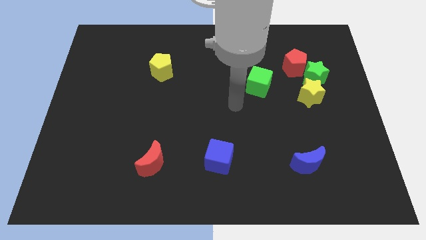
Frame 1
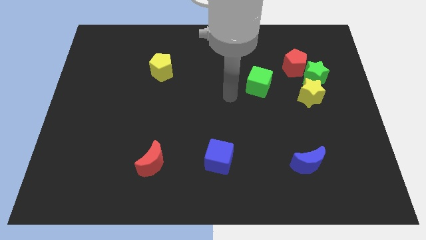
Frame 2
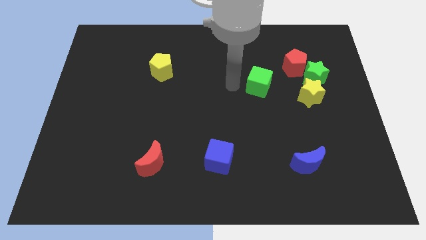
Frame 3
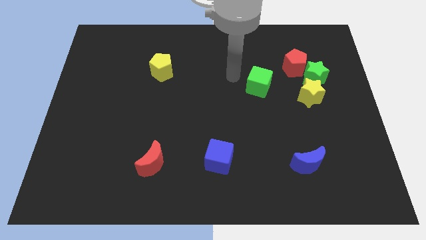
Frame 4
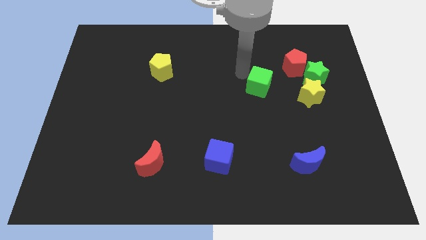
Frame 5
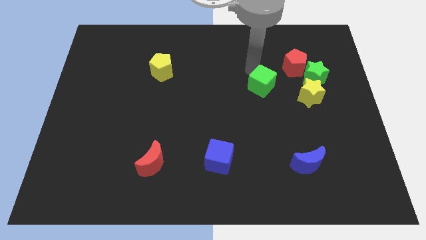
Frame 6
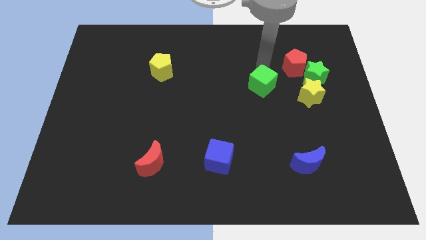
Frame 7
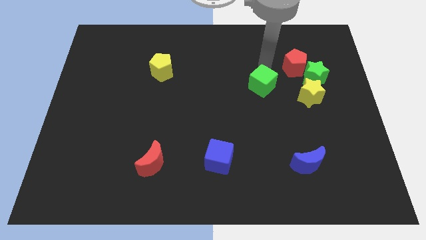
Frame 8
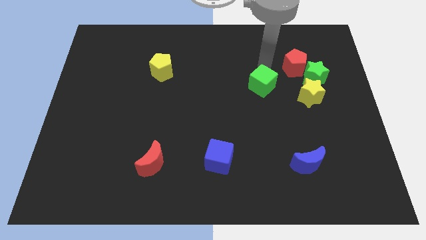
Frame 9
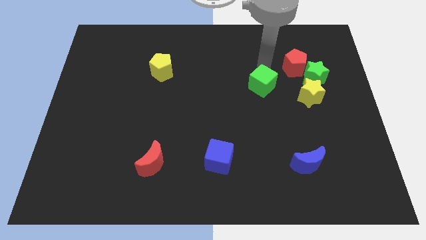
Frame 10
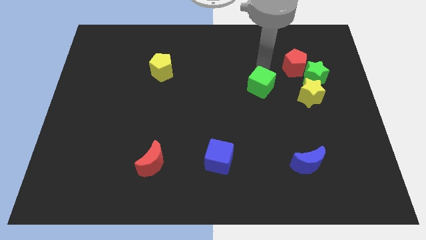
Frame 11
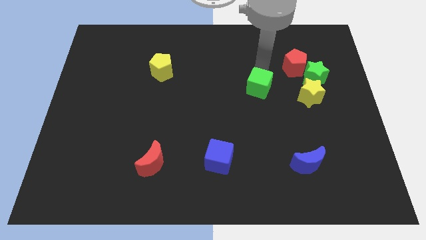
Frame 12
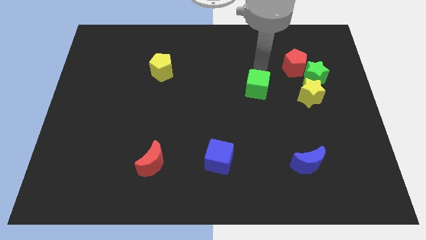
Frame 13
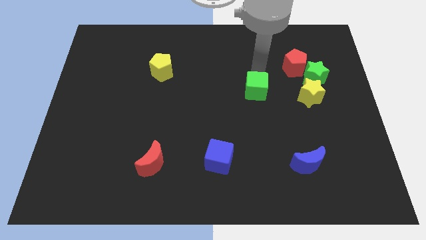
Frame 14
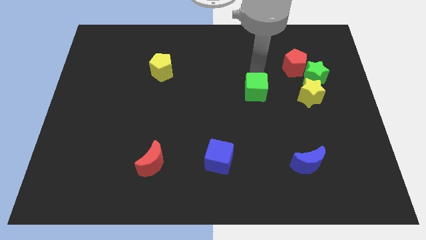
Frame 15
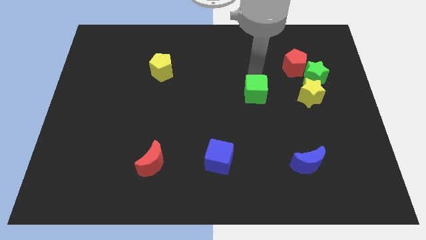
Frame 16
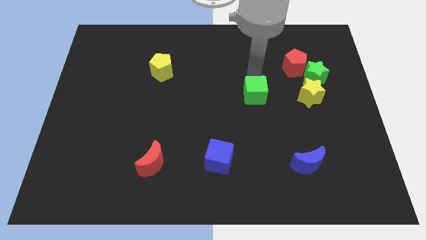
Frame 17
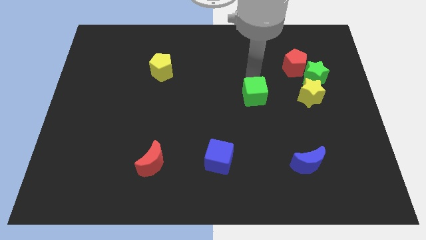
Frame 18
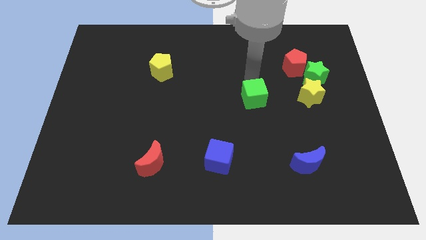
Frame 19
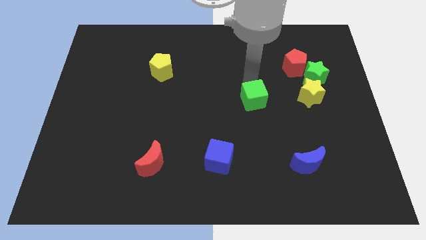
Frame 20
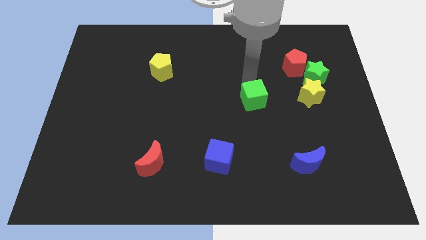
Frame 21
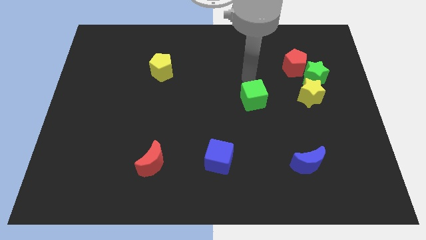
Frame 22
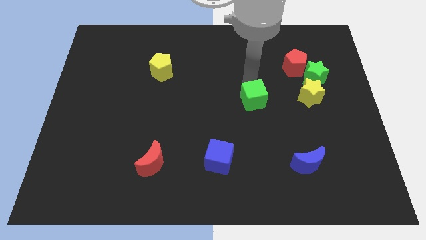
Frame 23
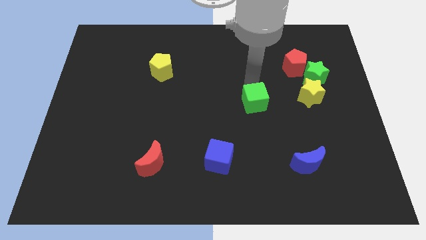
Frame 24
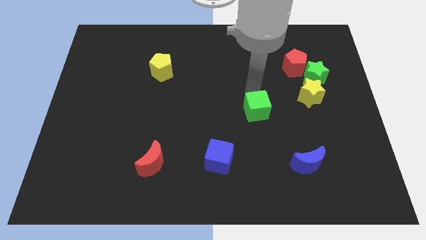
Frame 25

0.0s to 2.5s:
push the green cube a little bit down

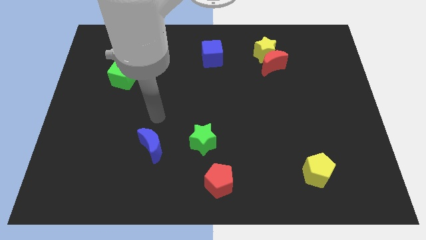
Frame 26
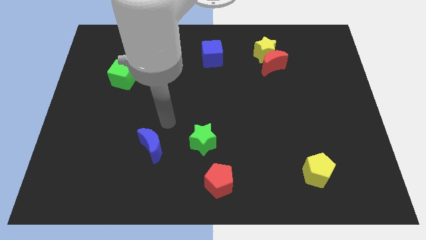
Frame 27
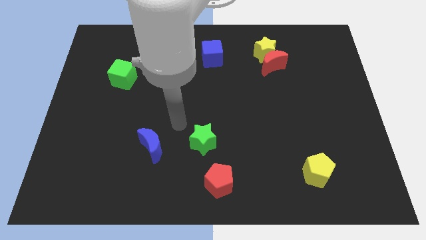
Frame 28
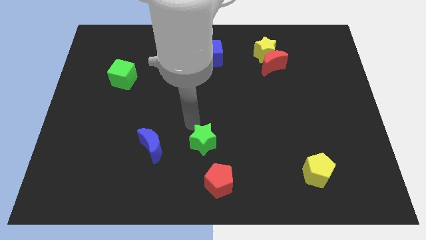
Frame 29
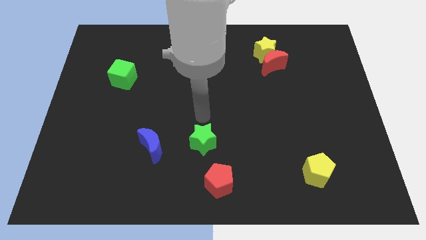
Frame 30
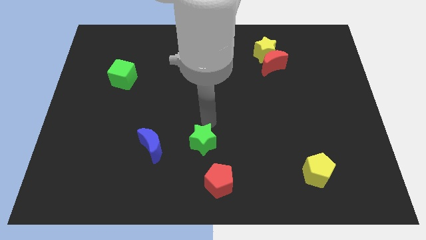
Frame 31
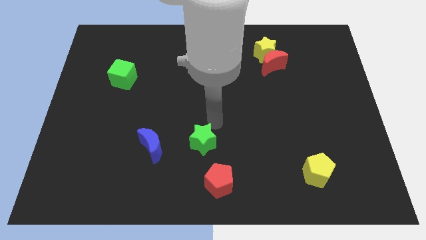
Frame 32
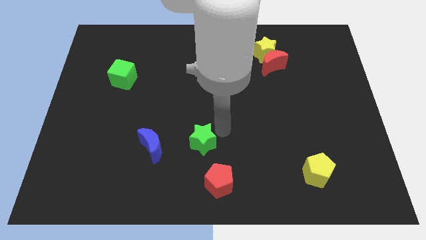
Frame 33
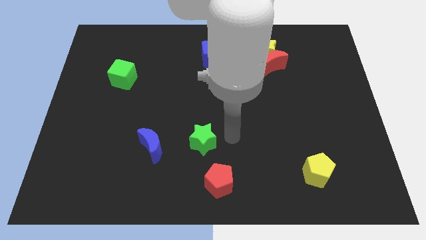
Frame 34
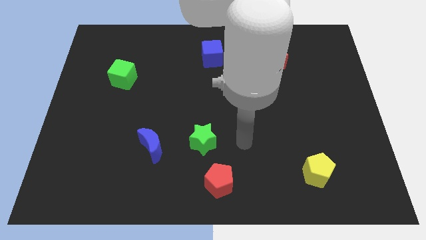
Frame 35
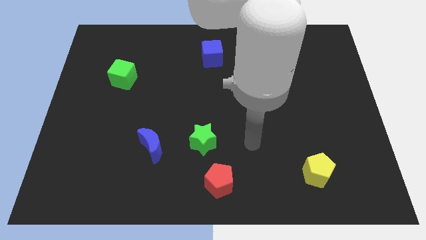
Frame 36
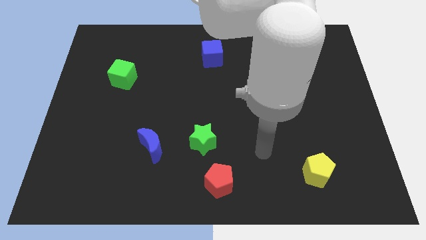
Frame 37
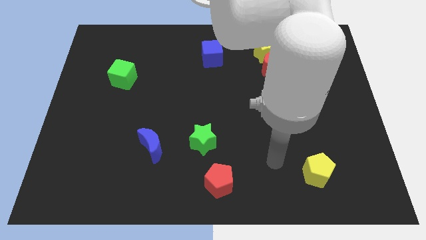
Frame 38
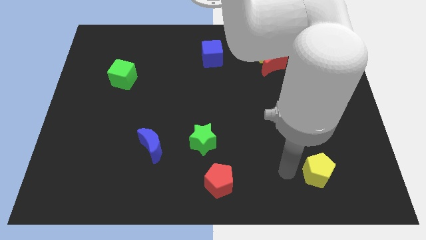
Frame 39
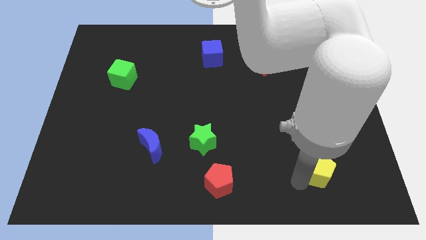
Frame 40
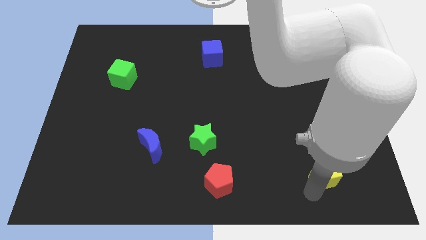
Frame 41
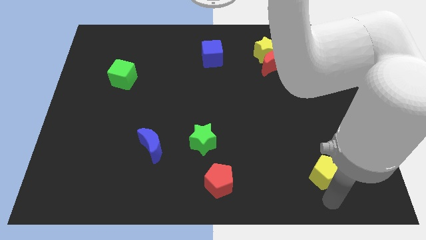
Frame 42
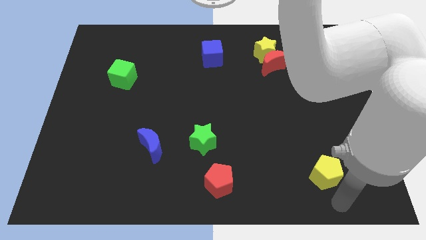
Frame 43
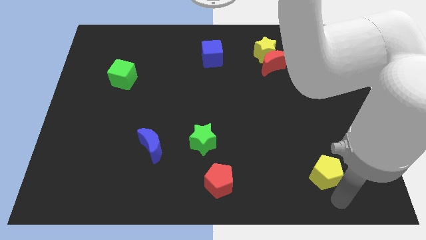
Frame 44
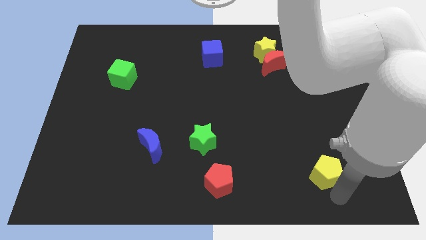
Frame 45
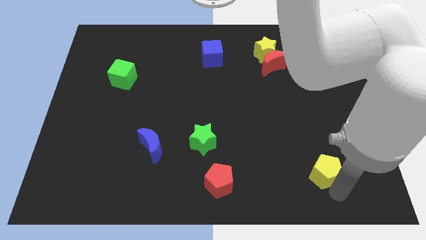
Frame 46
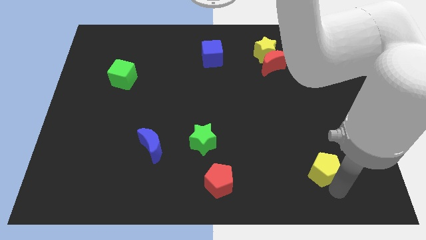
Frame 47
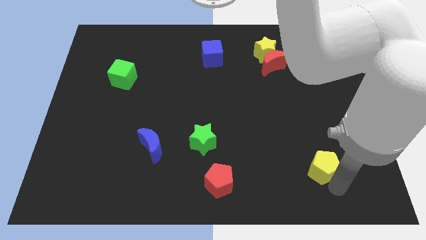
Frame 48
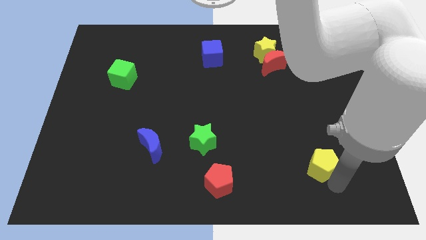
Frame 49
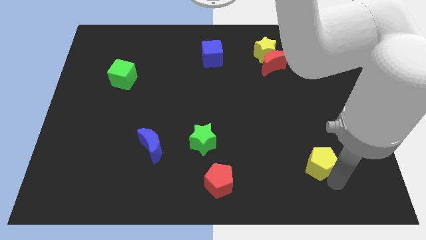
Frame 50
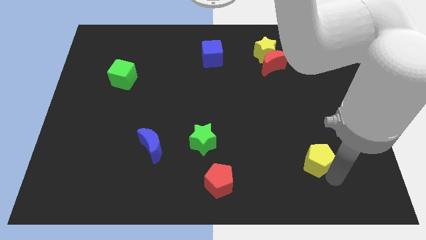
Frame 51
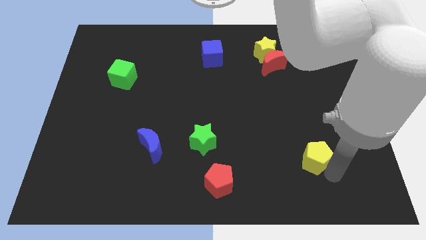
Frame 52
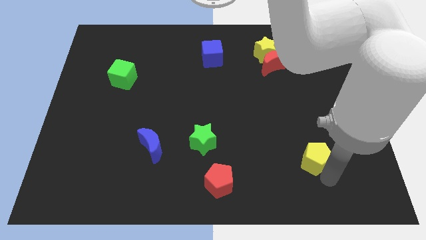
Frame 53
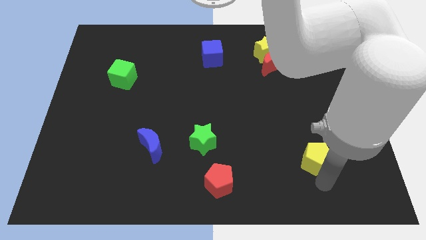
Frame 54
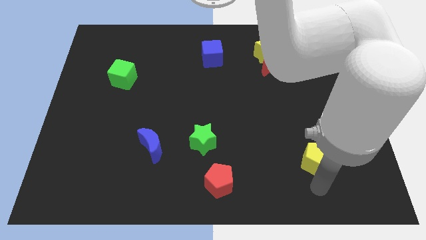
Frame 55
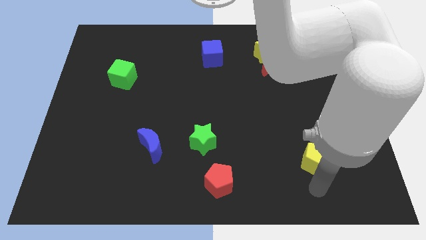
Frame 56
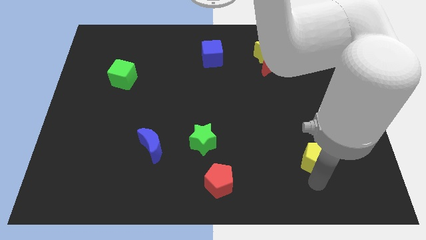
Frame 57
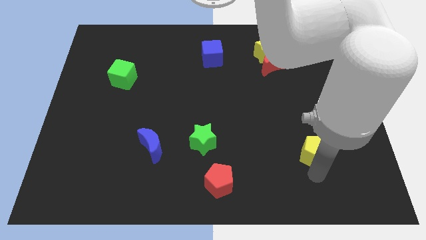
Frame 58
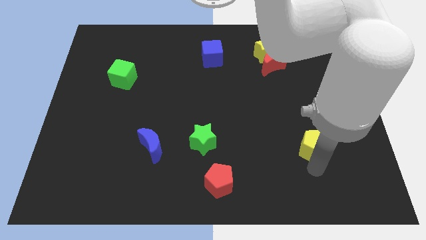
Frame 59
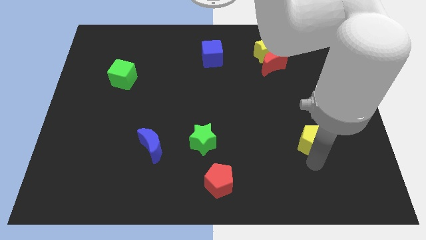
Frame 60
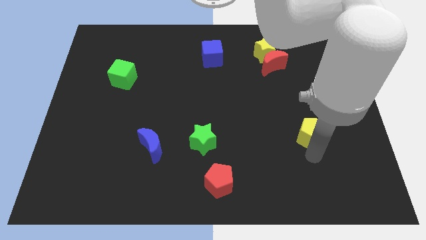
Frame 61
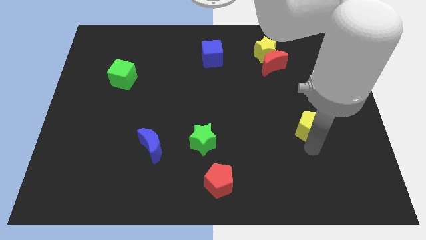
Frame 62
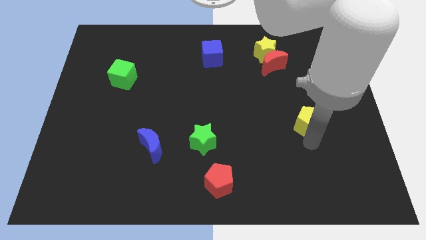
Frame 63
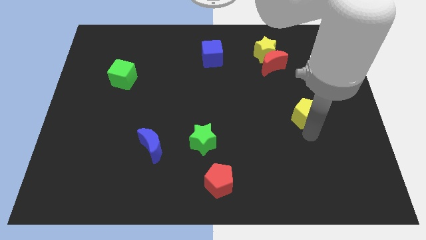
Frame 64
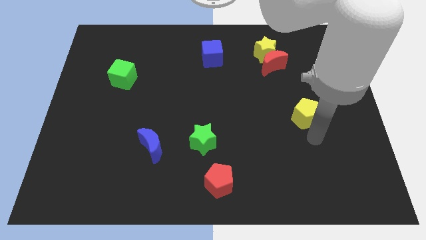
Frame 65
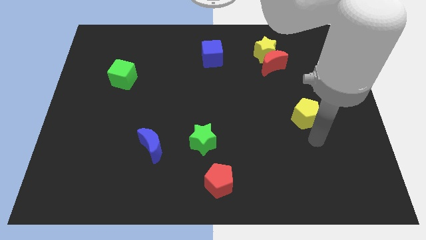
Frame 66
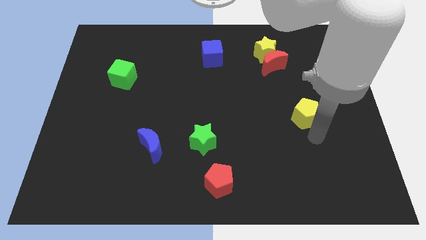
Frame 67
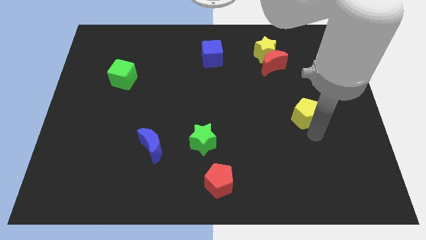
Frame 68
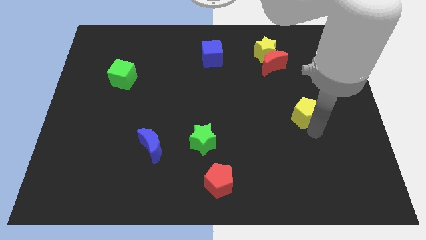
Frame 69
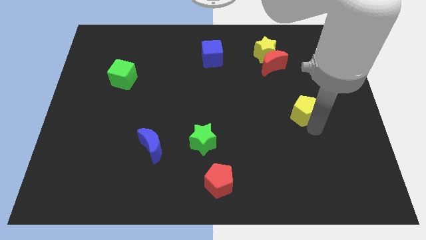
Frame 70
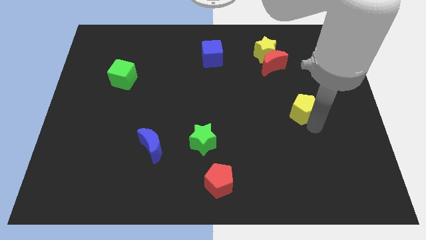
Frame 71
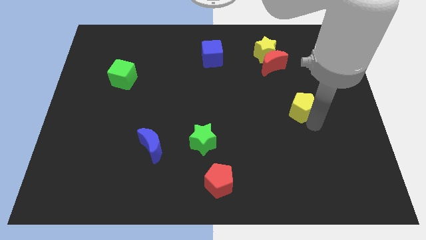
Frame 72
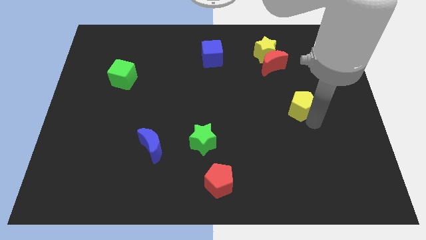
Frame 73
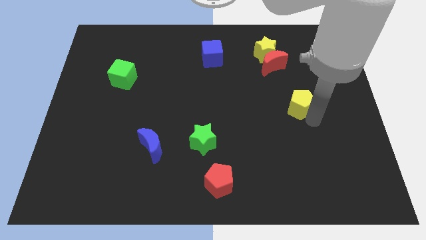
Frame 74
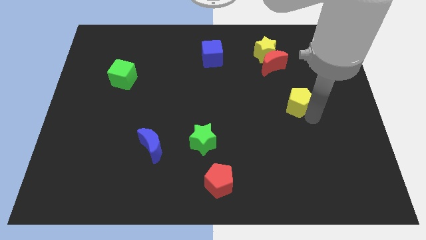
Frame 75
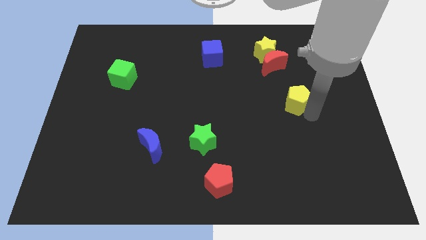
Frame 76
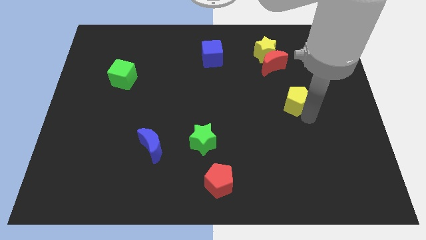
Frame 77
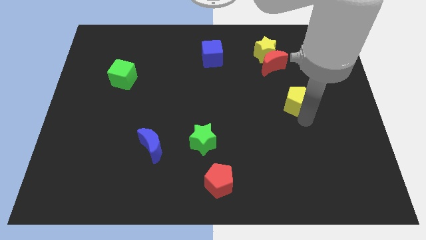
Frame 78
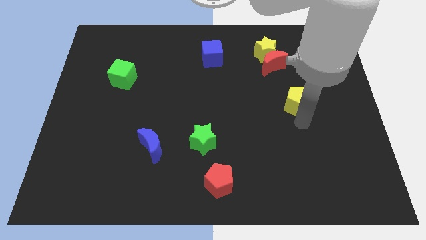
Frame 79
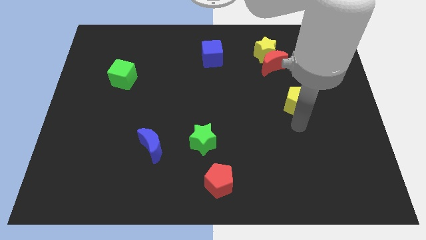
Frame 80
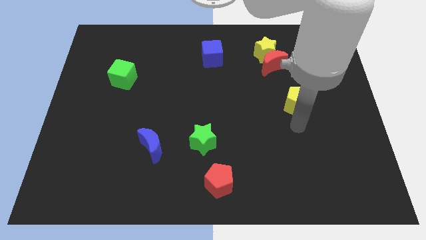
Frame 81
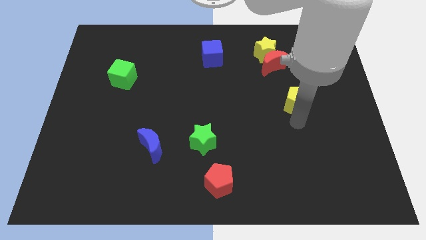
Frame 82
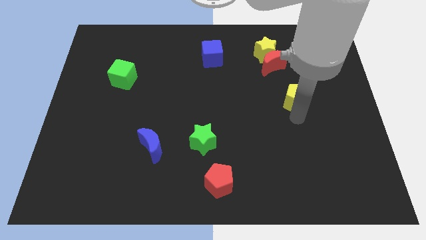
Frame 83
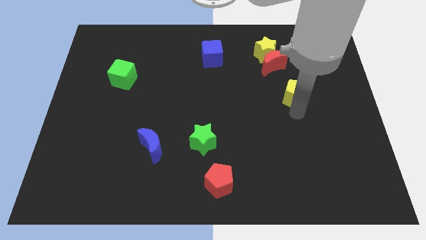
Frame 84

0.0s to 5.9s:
push the yellow pentagon upwards
